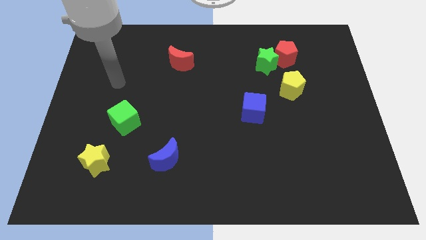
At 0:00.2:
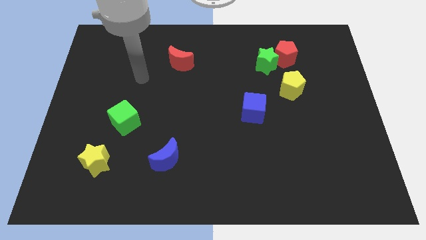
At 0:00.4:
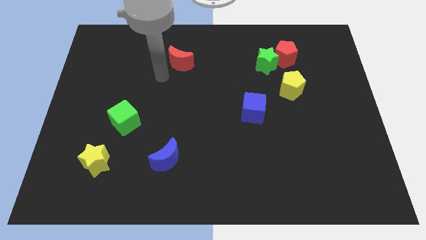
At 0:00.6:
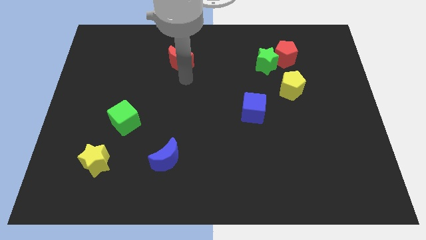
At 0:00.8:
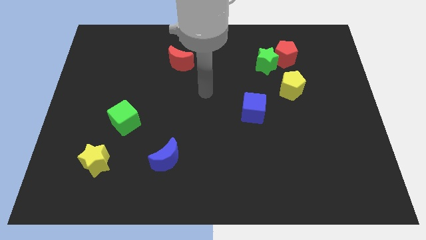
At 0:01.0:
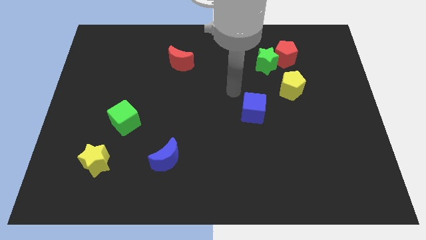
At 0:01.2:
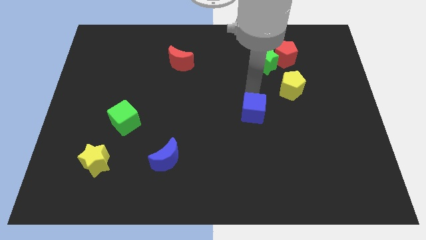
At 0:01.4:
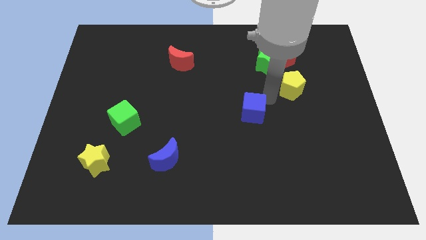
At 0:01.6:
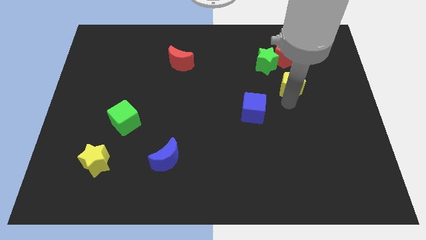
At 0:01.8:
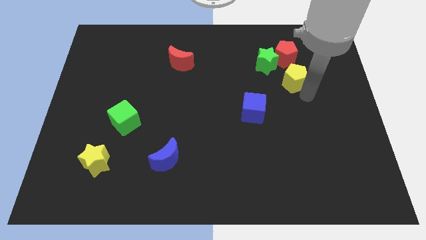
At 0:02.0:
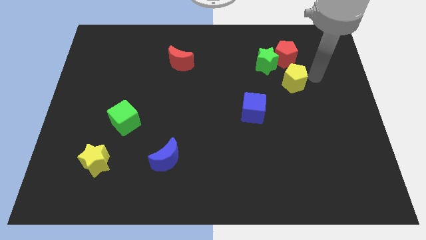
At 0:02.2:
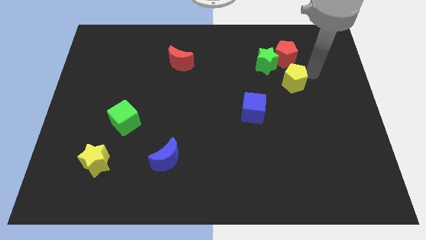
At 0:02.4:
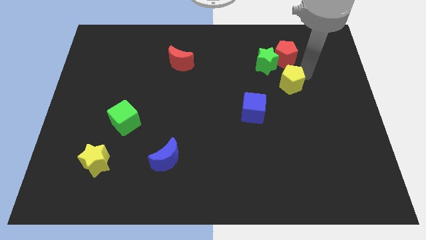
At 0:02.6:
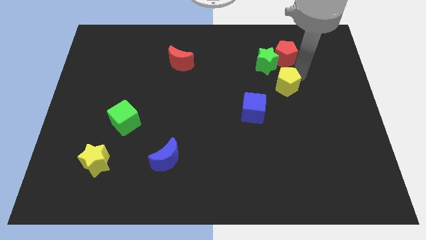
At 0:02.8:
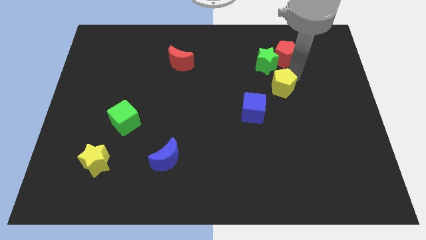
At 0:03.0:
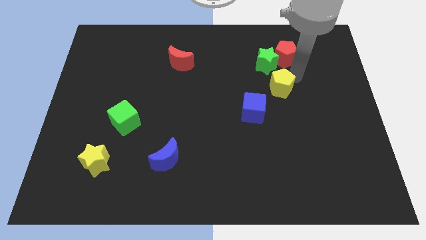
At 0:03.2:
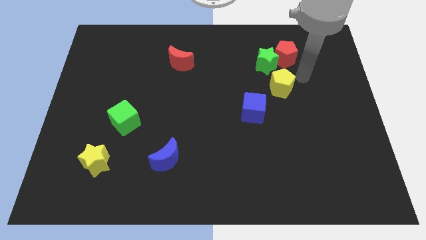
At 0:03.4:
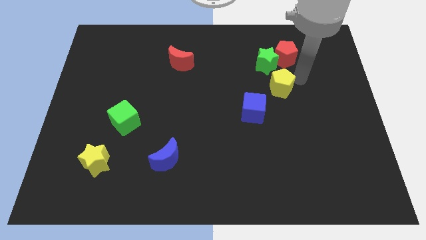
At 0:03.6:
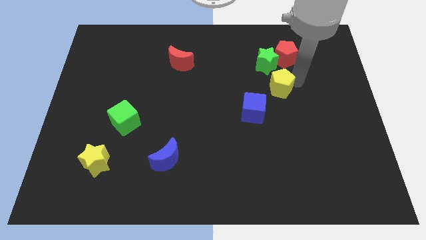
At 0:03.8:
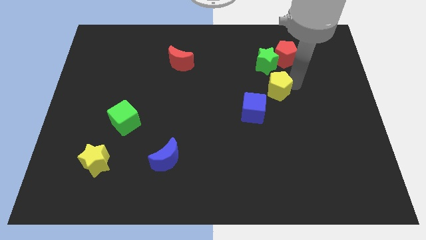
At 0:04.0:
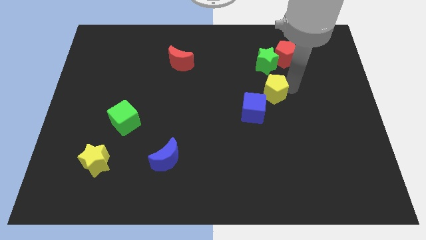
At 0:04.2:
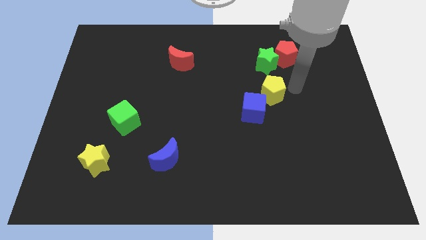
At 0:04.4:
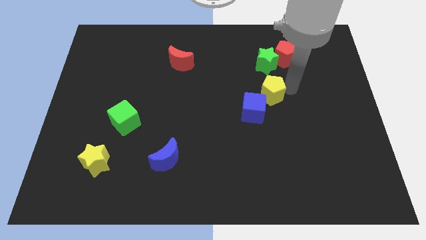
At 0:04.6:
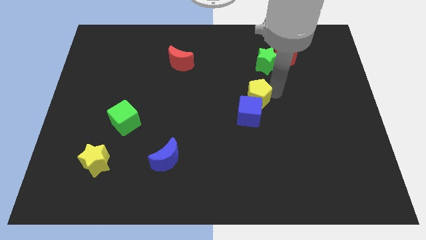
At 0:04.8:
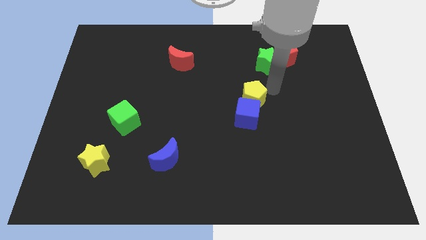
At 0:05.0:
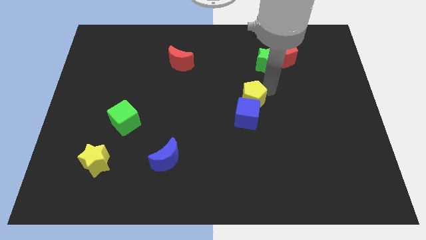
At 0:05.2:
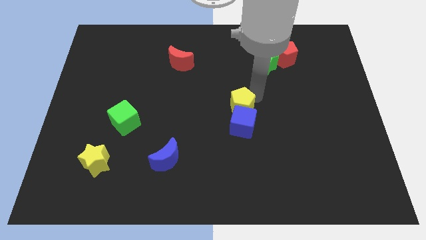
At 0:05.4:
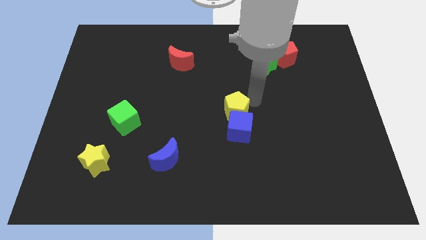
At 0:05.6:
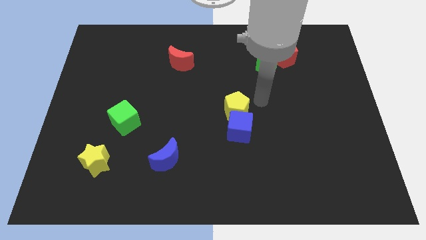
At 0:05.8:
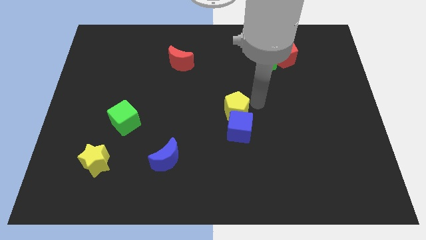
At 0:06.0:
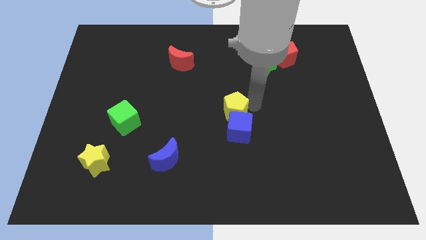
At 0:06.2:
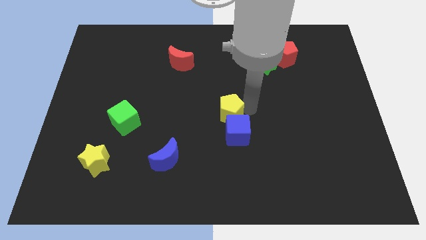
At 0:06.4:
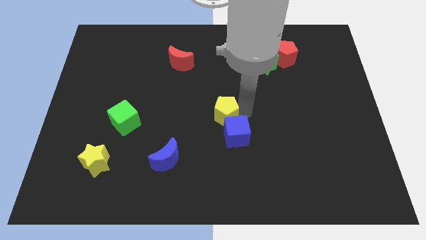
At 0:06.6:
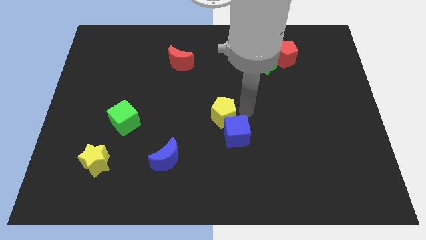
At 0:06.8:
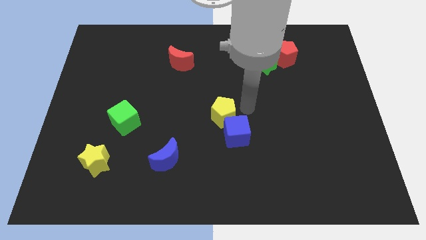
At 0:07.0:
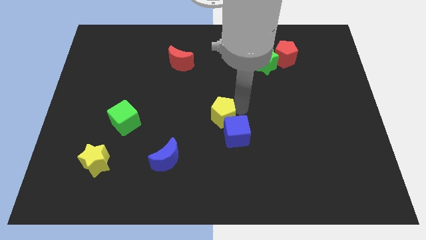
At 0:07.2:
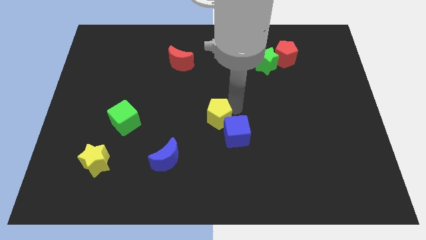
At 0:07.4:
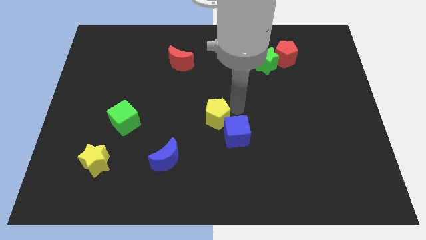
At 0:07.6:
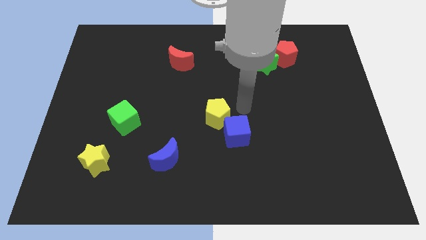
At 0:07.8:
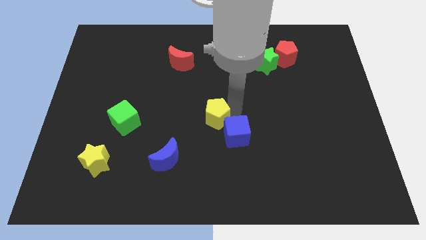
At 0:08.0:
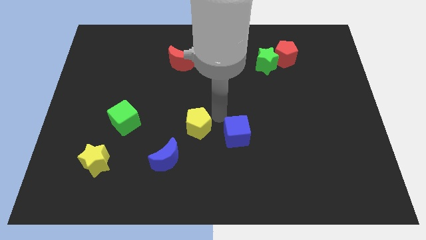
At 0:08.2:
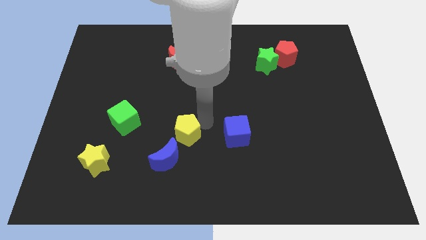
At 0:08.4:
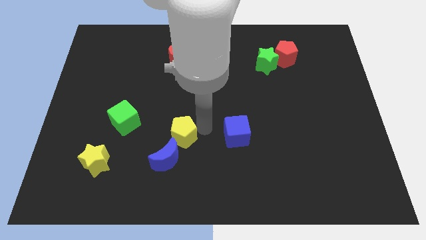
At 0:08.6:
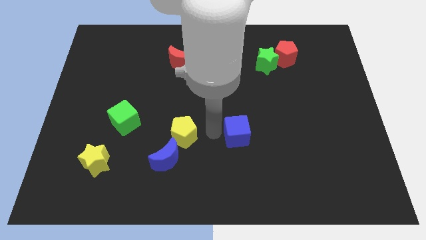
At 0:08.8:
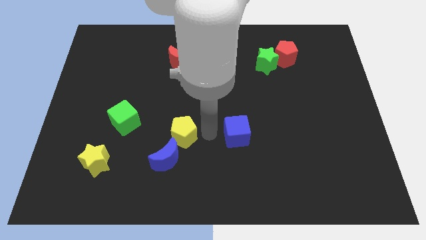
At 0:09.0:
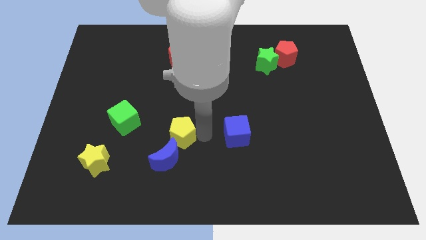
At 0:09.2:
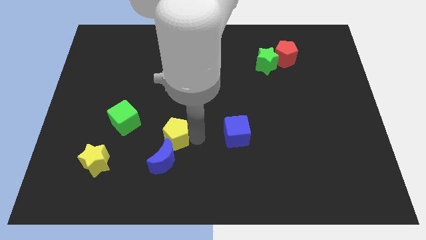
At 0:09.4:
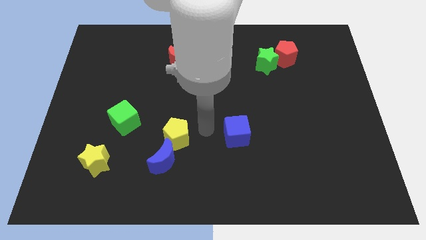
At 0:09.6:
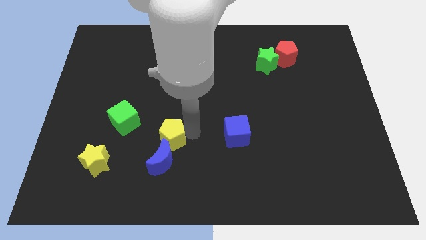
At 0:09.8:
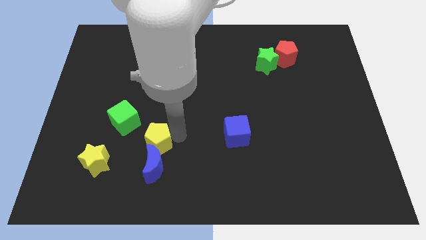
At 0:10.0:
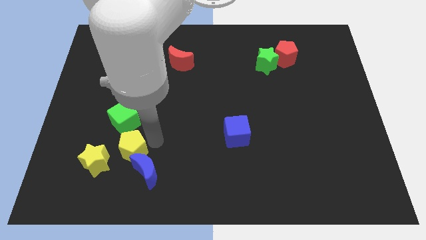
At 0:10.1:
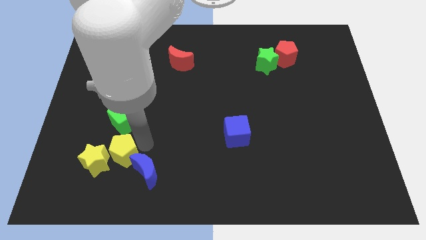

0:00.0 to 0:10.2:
slide the yellow pentagon towards the yellow star

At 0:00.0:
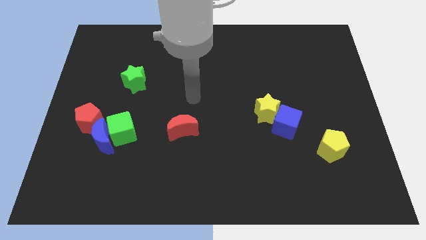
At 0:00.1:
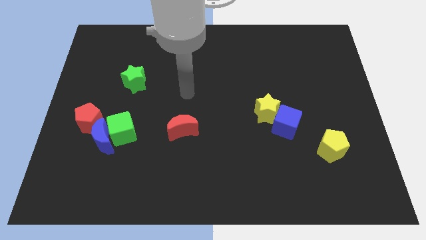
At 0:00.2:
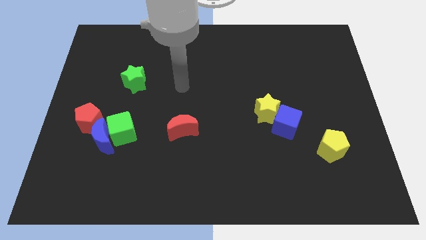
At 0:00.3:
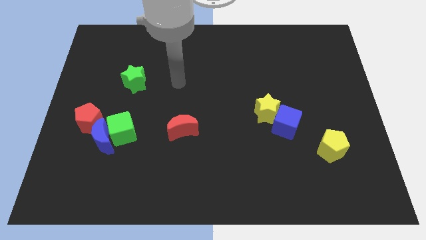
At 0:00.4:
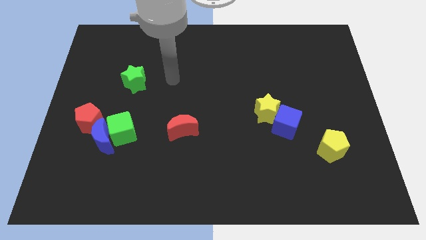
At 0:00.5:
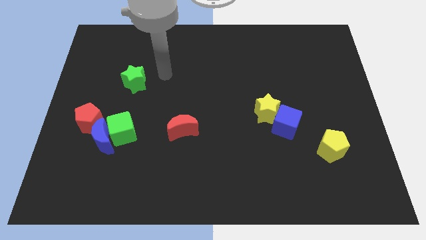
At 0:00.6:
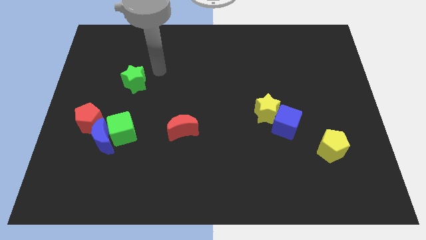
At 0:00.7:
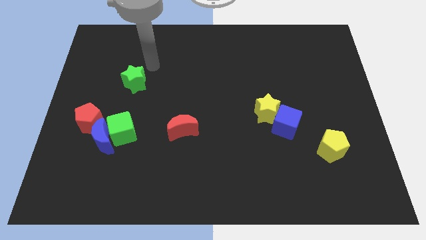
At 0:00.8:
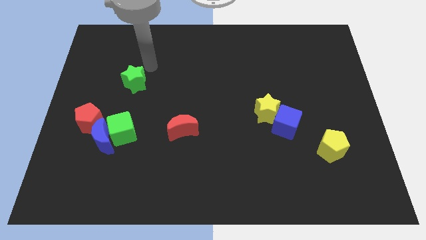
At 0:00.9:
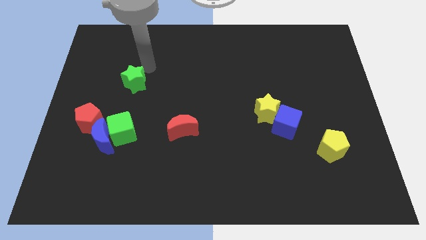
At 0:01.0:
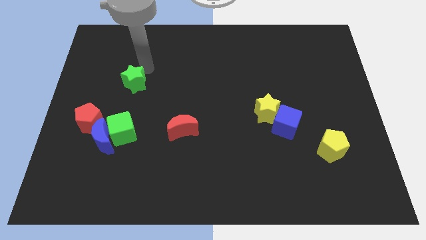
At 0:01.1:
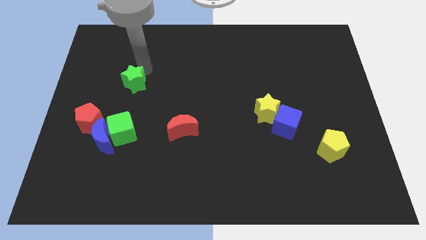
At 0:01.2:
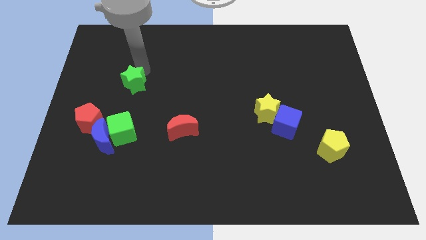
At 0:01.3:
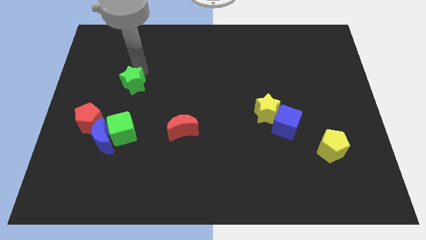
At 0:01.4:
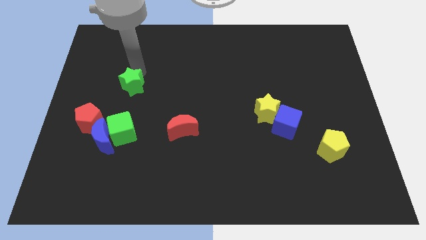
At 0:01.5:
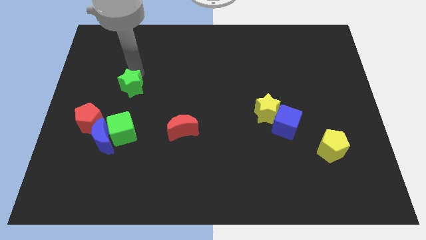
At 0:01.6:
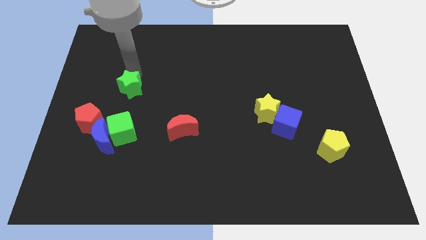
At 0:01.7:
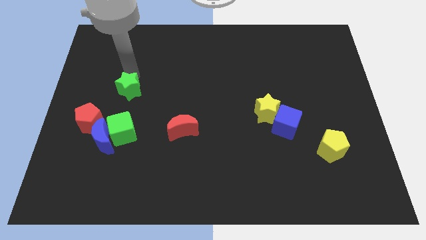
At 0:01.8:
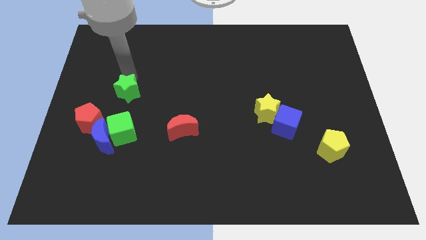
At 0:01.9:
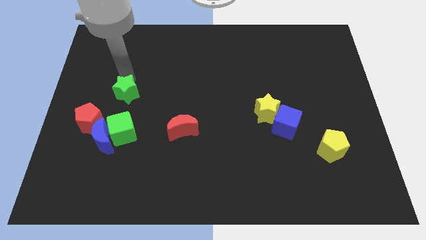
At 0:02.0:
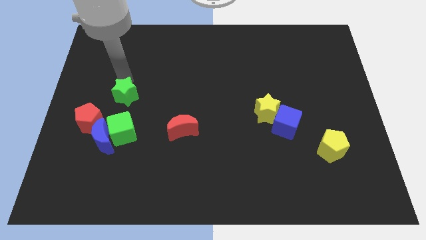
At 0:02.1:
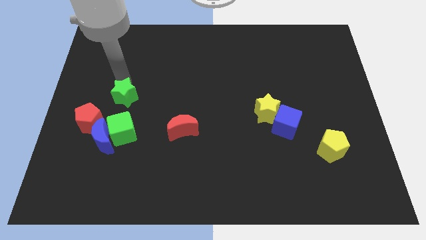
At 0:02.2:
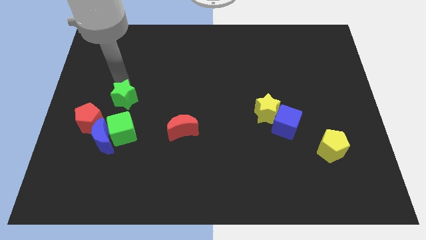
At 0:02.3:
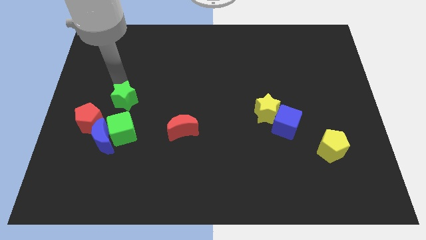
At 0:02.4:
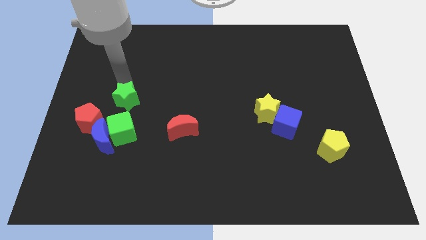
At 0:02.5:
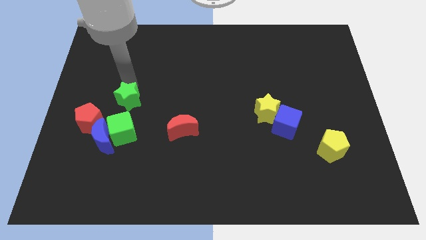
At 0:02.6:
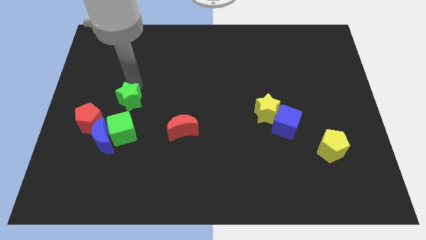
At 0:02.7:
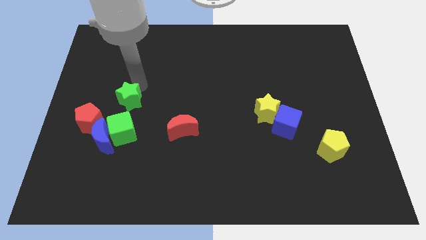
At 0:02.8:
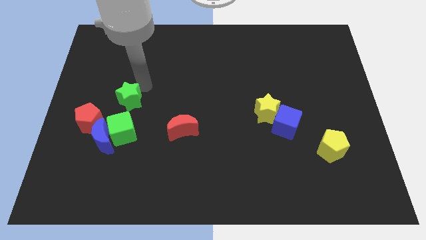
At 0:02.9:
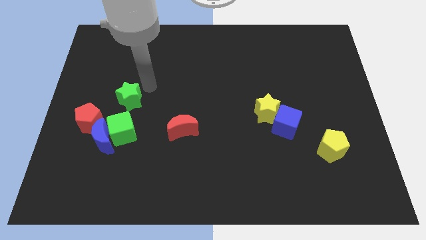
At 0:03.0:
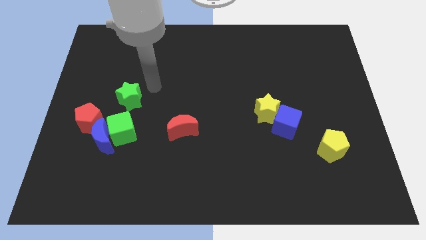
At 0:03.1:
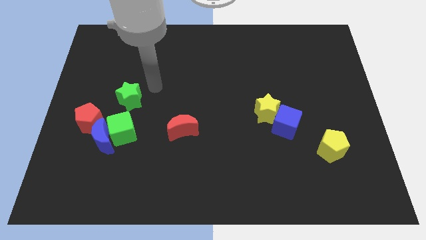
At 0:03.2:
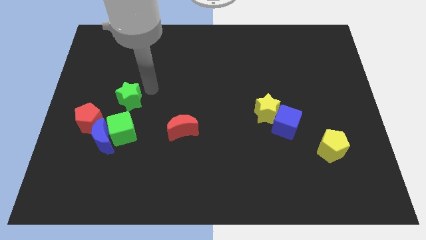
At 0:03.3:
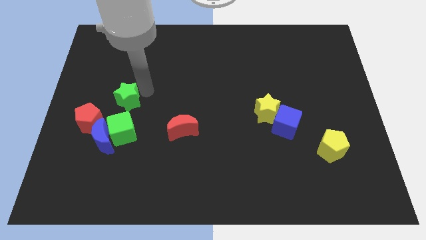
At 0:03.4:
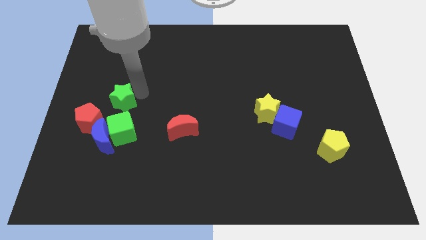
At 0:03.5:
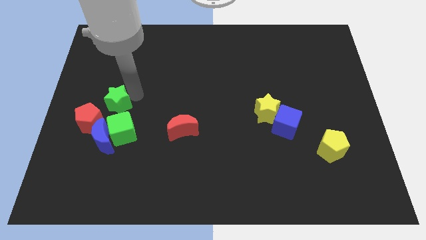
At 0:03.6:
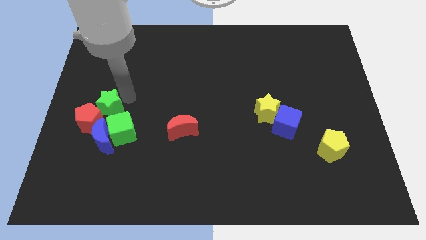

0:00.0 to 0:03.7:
move the green star to the red pentagon
